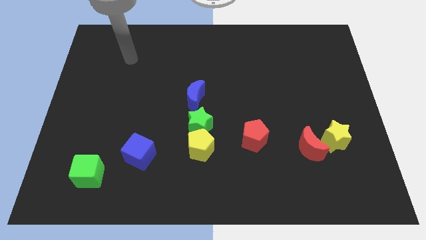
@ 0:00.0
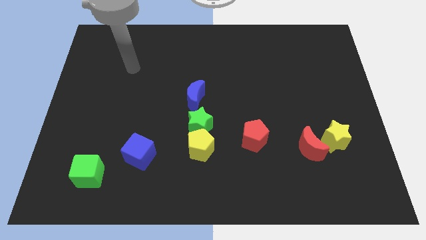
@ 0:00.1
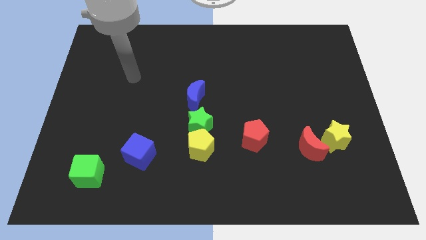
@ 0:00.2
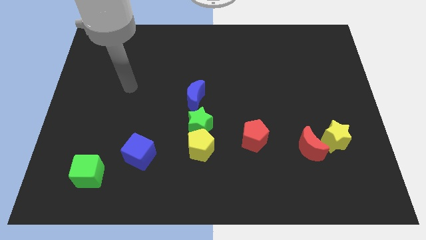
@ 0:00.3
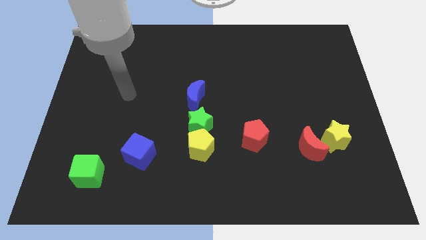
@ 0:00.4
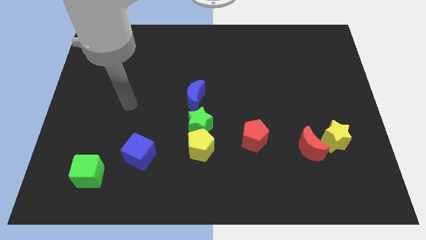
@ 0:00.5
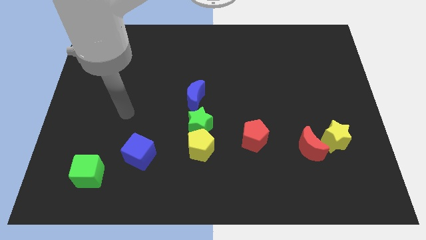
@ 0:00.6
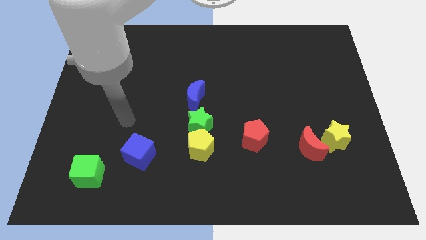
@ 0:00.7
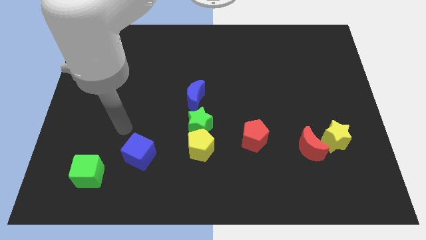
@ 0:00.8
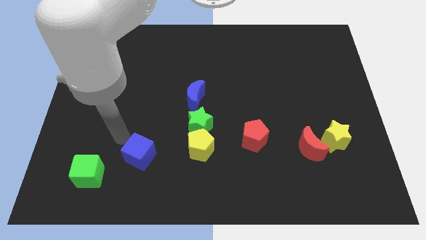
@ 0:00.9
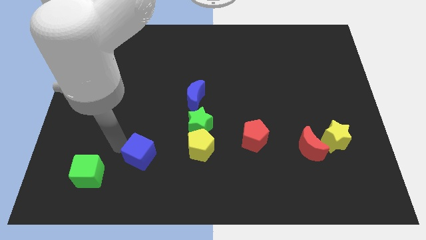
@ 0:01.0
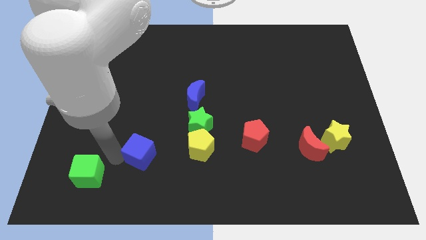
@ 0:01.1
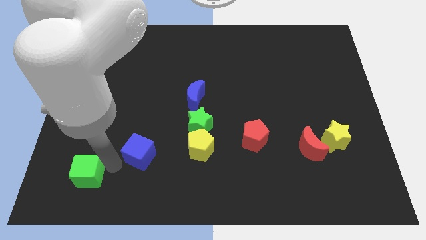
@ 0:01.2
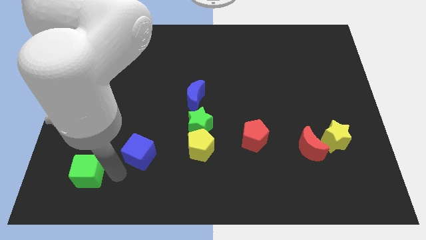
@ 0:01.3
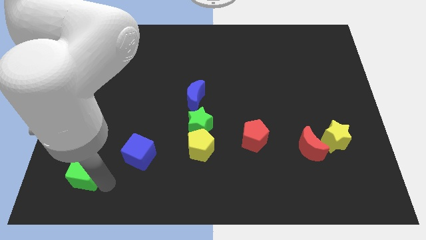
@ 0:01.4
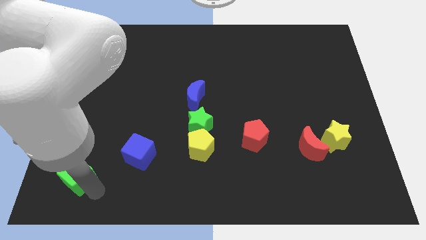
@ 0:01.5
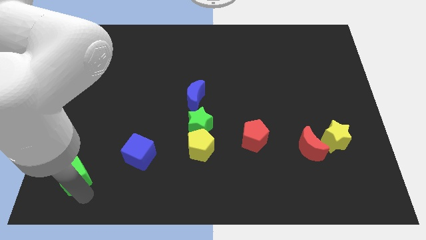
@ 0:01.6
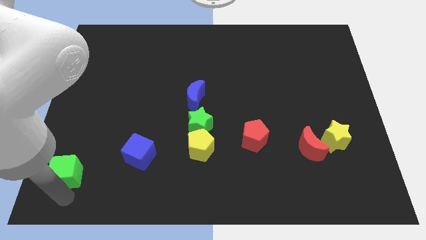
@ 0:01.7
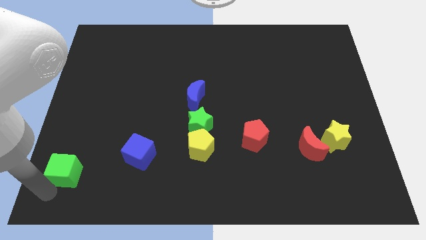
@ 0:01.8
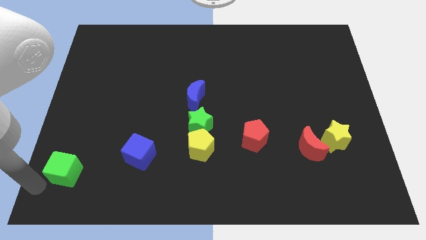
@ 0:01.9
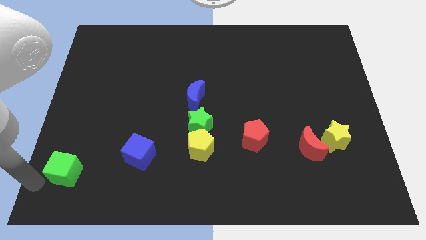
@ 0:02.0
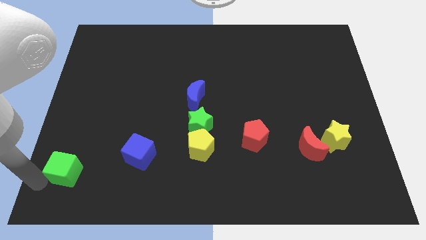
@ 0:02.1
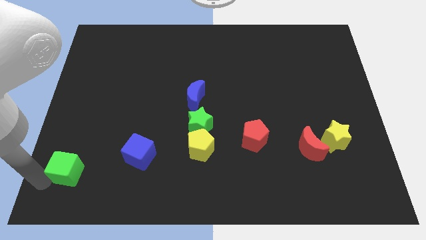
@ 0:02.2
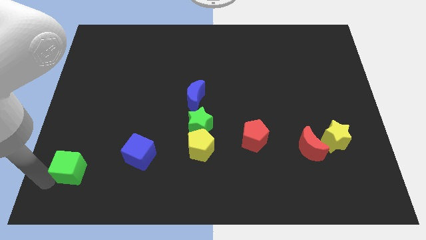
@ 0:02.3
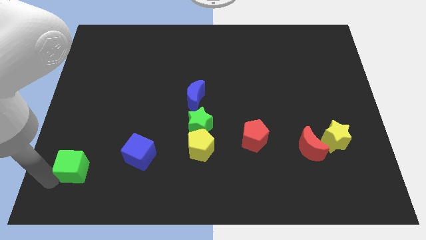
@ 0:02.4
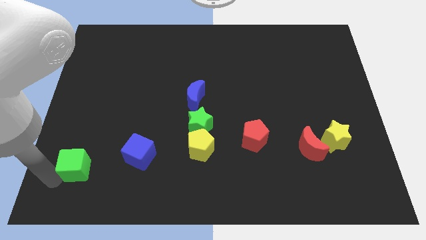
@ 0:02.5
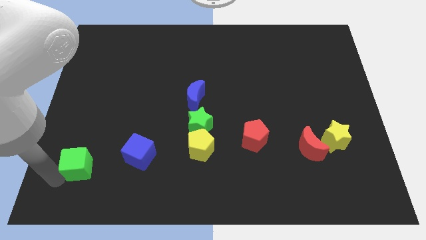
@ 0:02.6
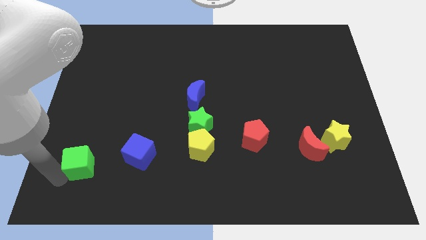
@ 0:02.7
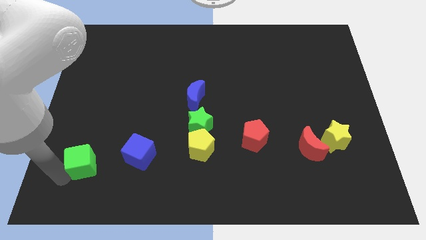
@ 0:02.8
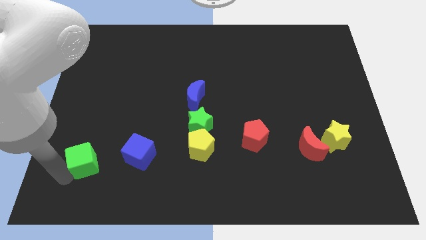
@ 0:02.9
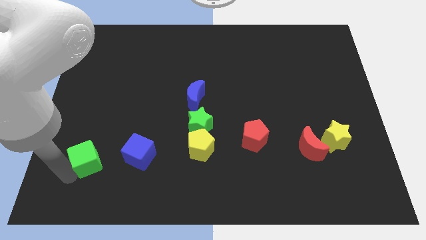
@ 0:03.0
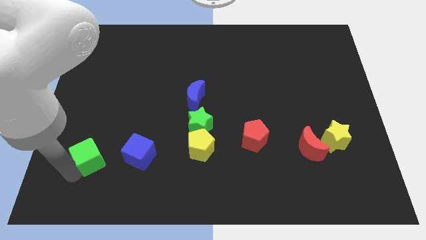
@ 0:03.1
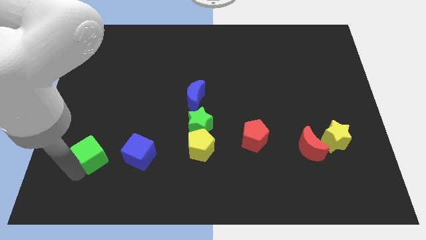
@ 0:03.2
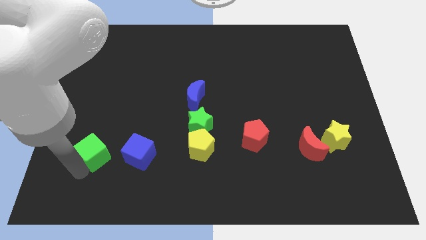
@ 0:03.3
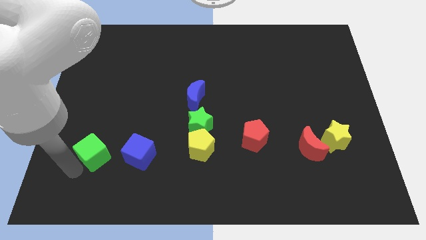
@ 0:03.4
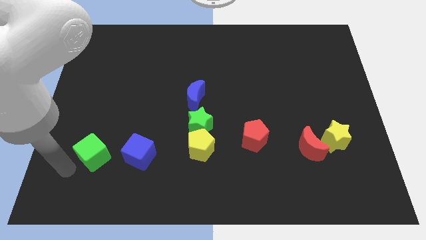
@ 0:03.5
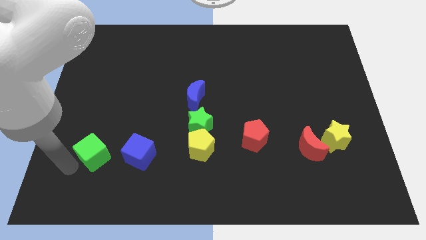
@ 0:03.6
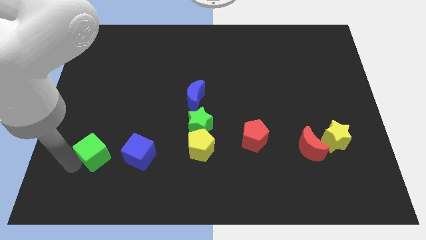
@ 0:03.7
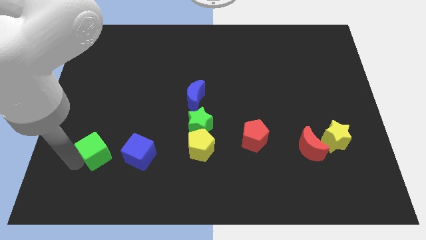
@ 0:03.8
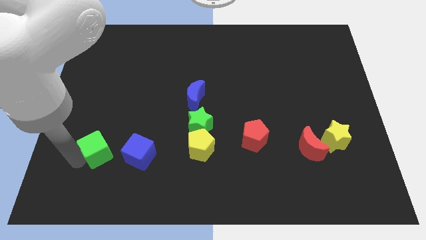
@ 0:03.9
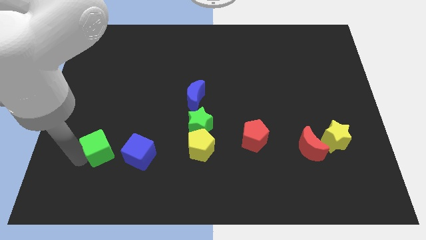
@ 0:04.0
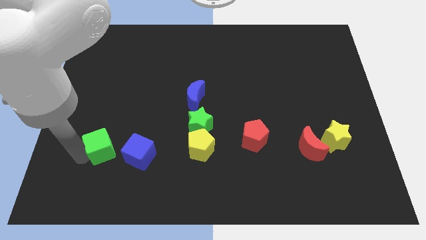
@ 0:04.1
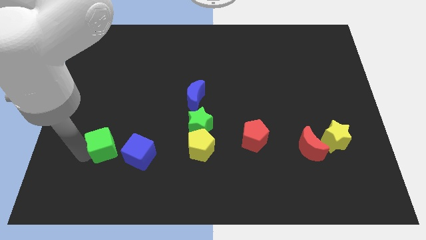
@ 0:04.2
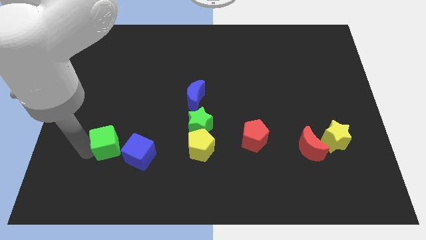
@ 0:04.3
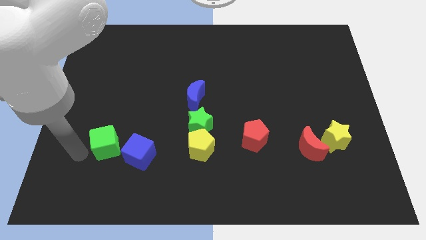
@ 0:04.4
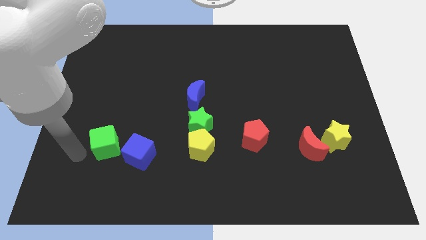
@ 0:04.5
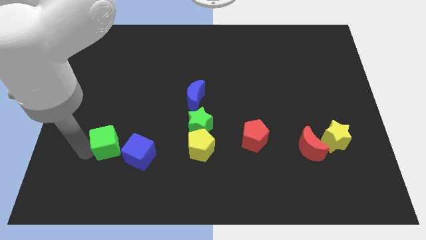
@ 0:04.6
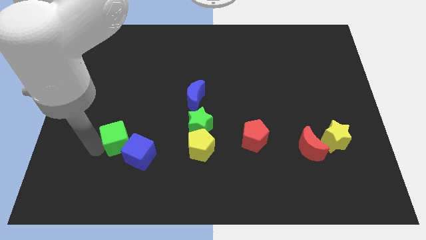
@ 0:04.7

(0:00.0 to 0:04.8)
slide the green cube a little bit upwards and right

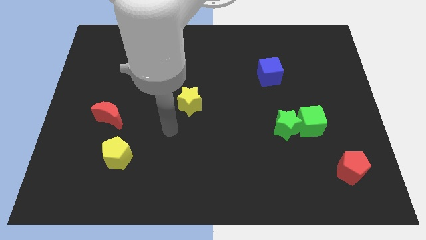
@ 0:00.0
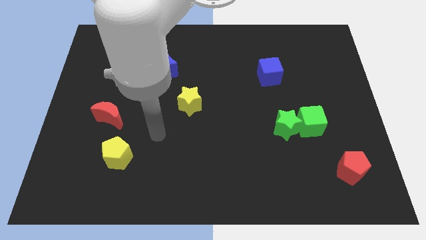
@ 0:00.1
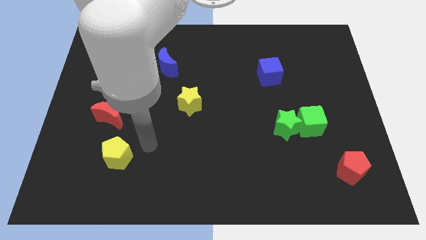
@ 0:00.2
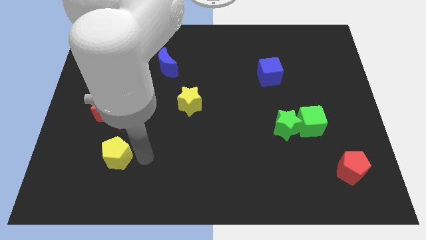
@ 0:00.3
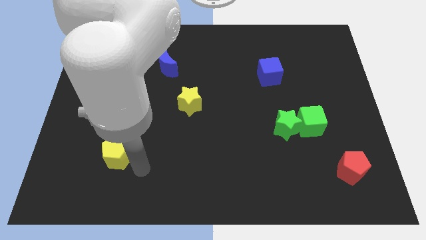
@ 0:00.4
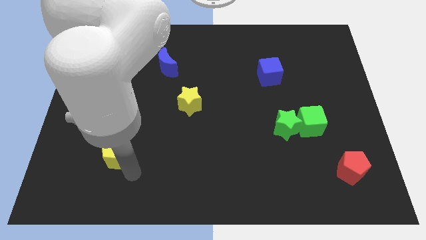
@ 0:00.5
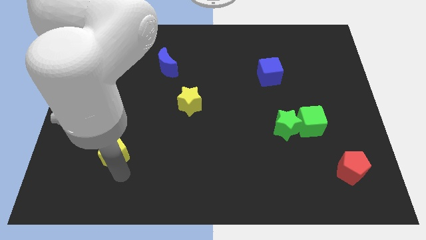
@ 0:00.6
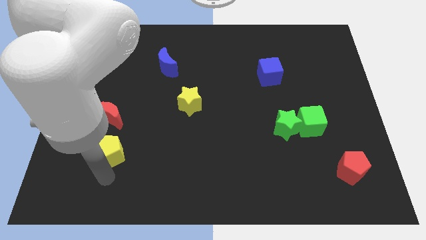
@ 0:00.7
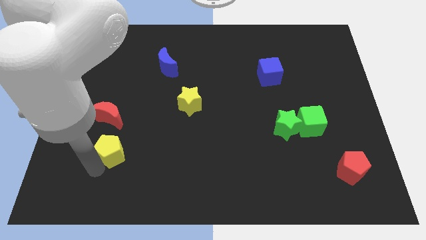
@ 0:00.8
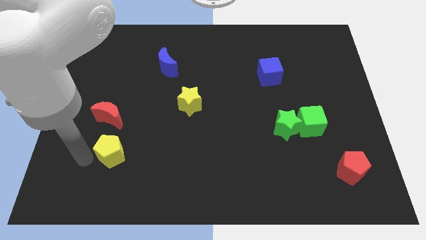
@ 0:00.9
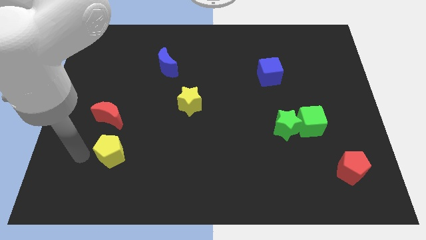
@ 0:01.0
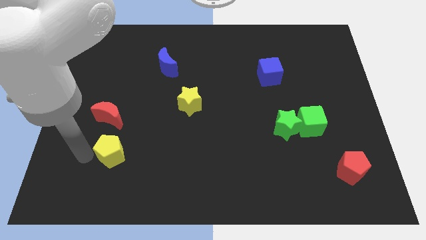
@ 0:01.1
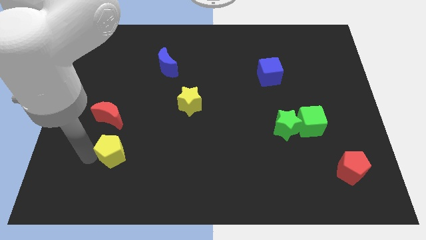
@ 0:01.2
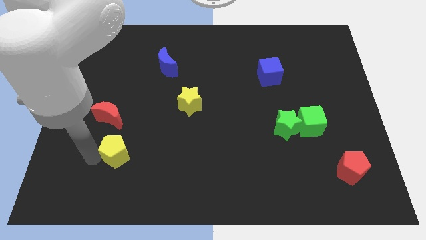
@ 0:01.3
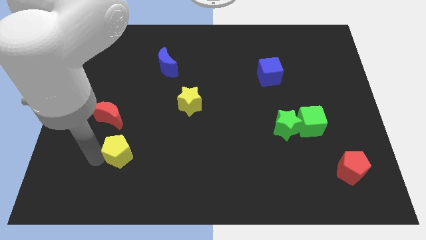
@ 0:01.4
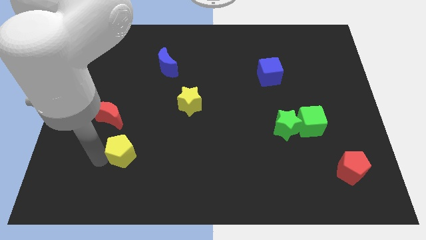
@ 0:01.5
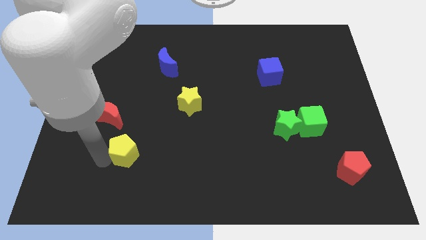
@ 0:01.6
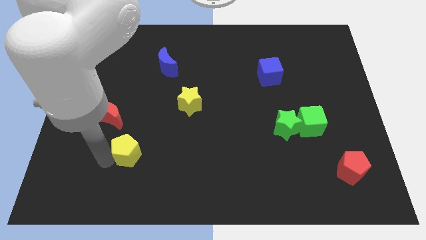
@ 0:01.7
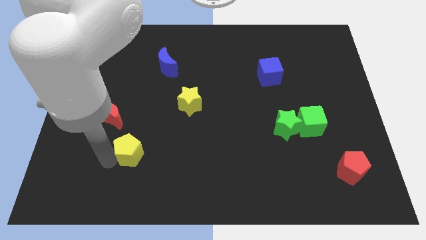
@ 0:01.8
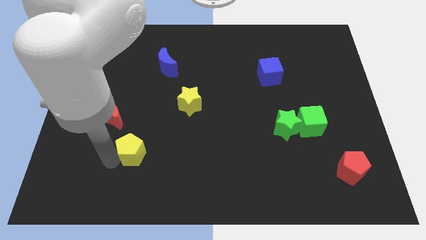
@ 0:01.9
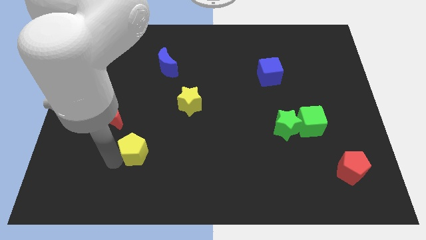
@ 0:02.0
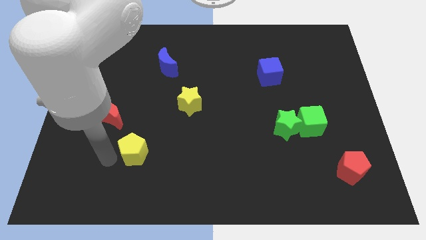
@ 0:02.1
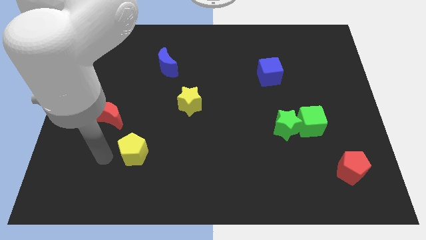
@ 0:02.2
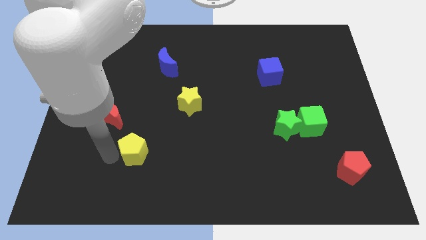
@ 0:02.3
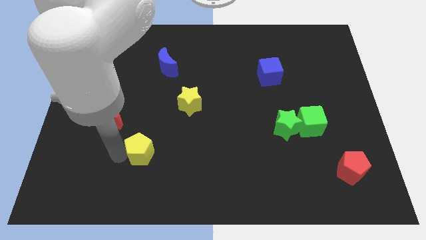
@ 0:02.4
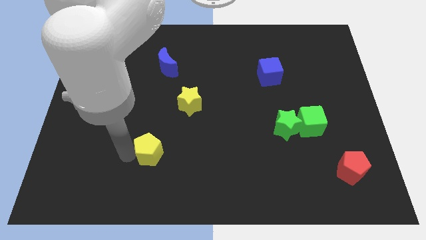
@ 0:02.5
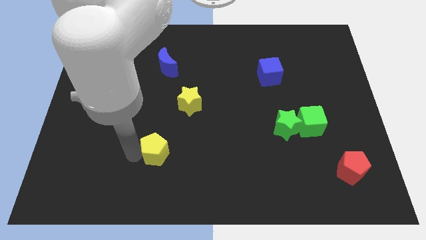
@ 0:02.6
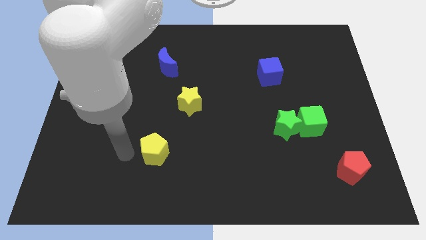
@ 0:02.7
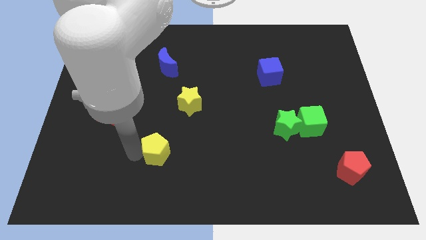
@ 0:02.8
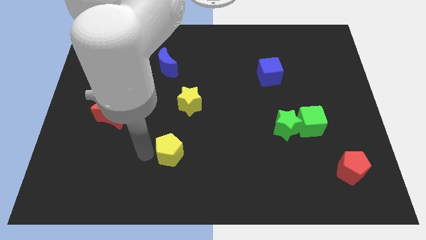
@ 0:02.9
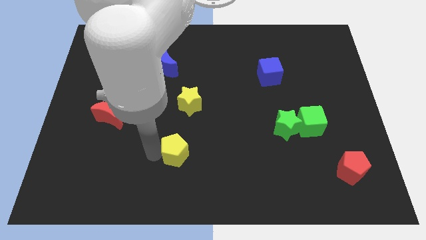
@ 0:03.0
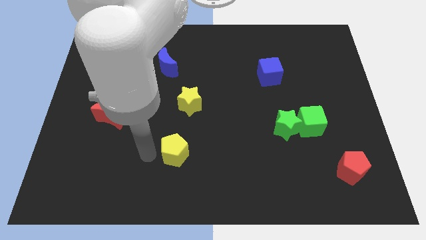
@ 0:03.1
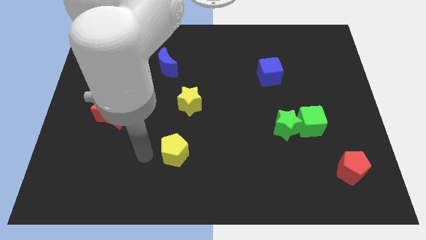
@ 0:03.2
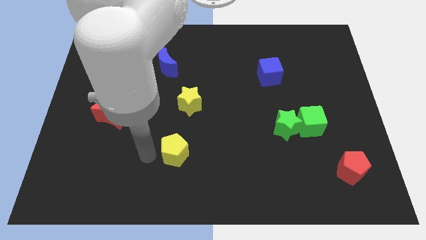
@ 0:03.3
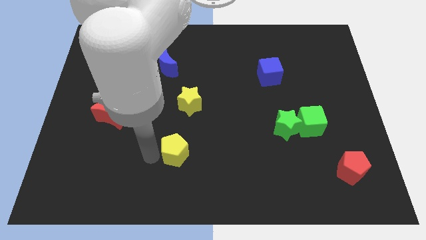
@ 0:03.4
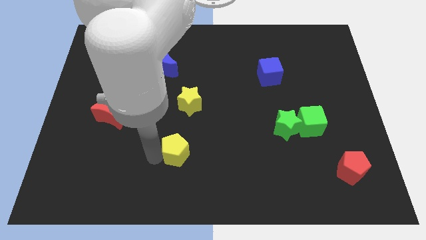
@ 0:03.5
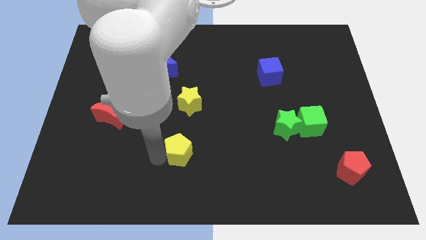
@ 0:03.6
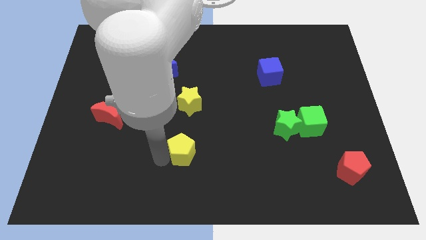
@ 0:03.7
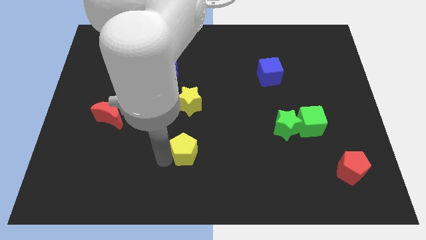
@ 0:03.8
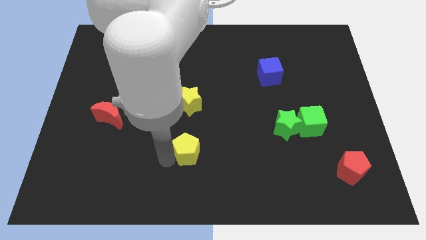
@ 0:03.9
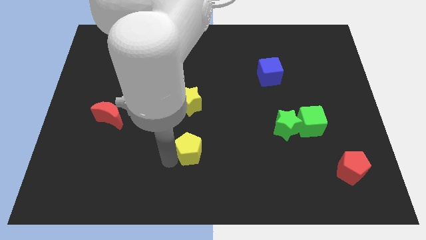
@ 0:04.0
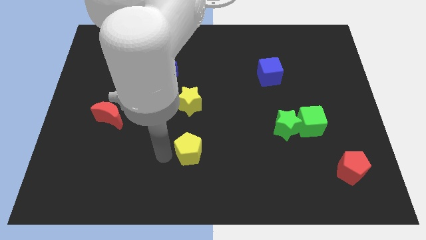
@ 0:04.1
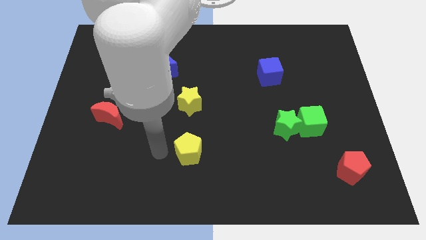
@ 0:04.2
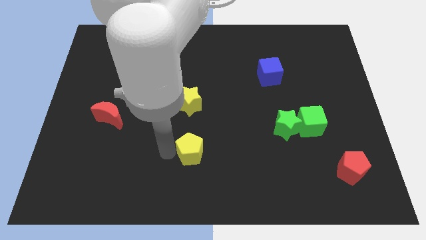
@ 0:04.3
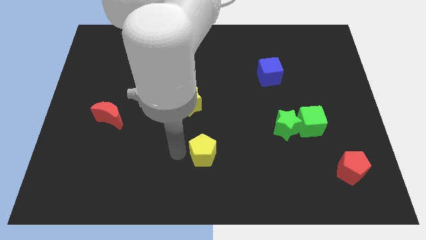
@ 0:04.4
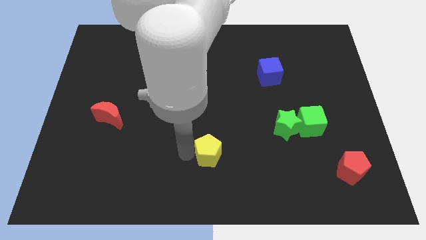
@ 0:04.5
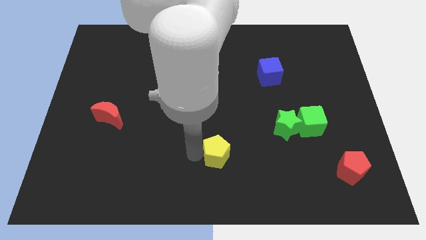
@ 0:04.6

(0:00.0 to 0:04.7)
slide the yellow pentagon to the right
